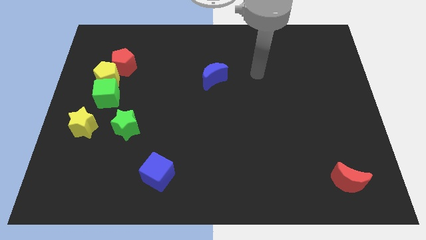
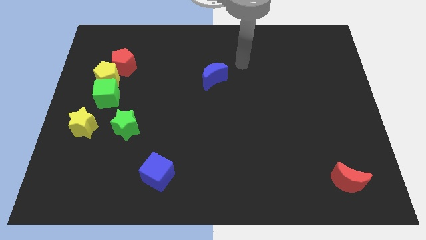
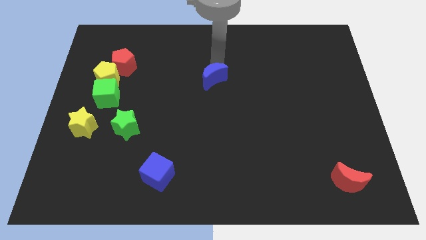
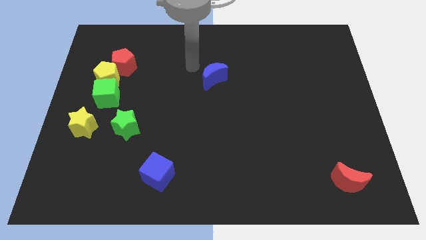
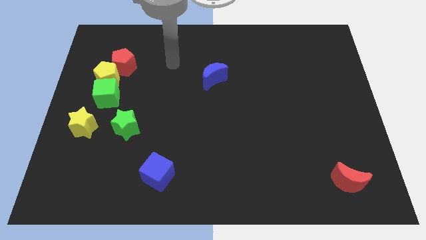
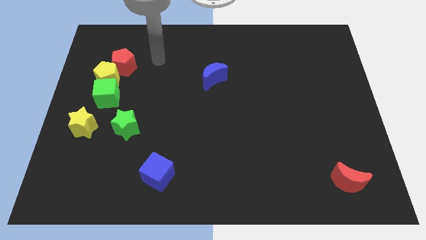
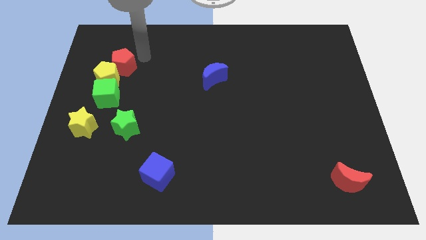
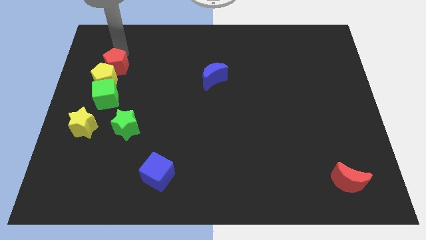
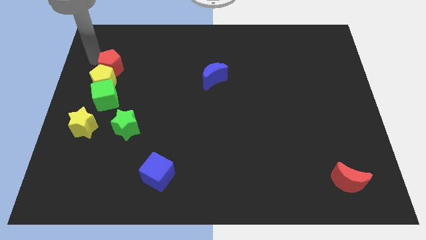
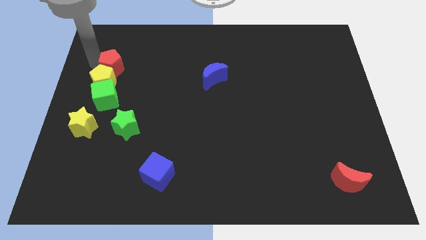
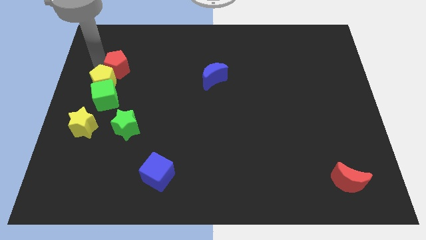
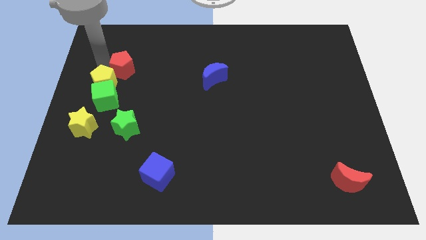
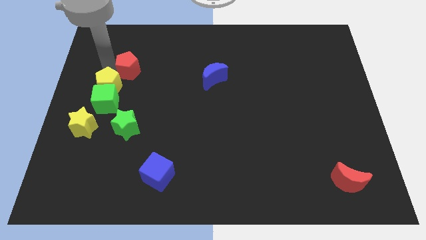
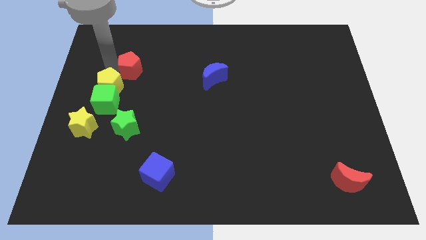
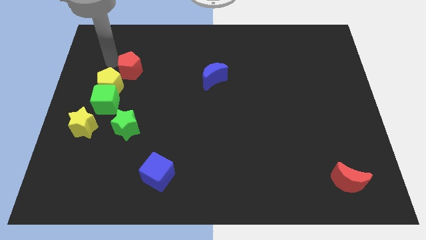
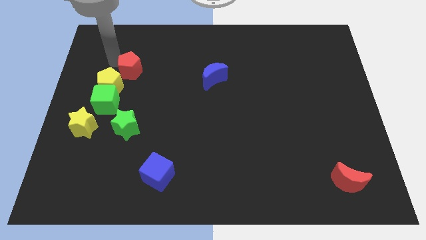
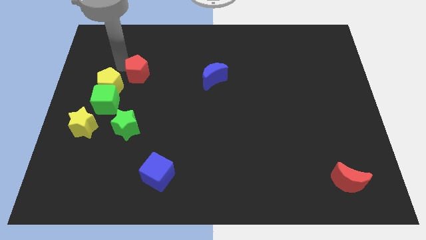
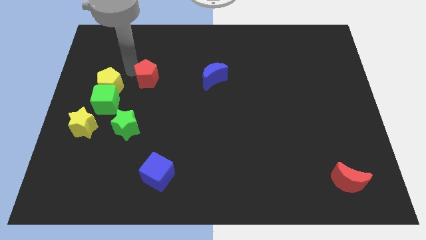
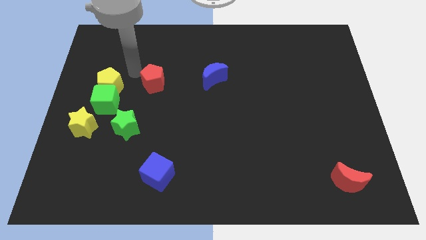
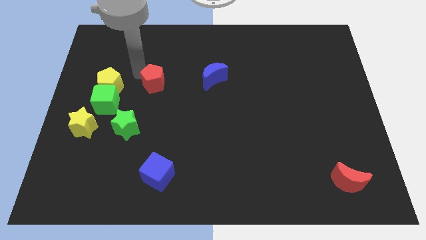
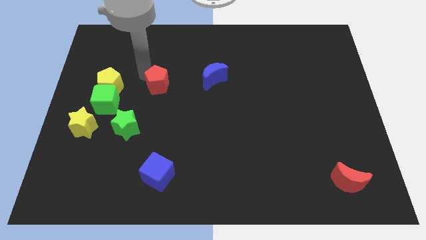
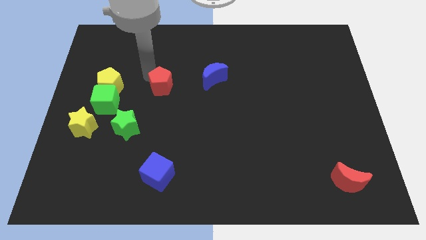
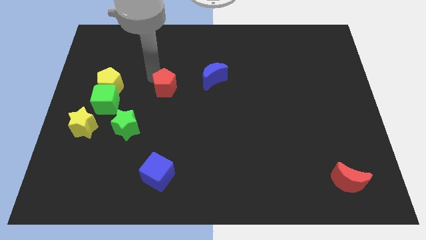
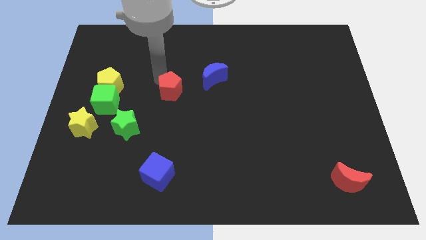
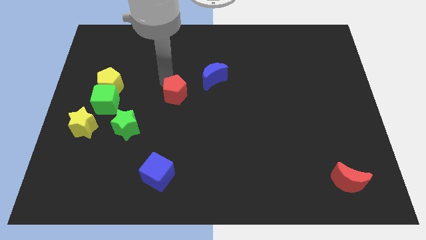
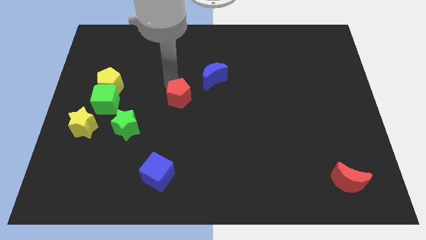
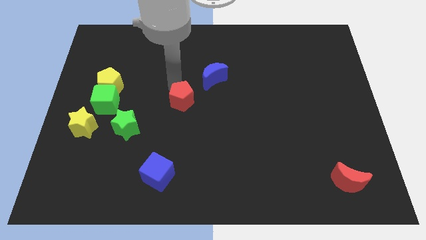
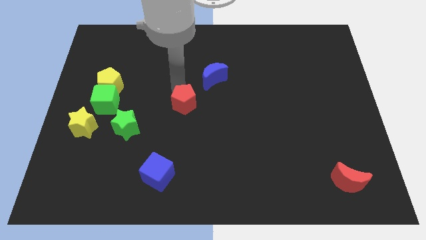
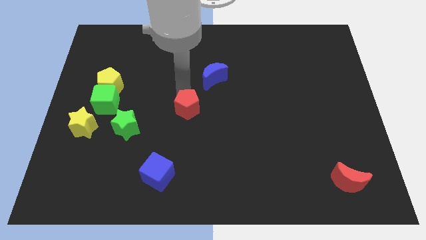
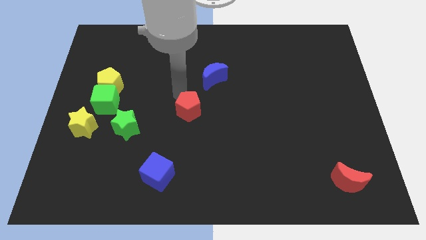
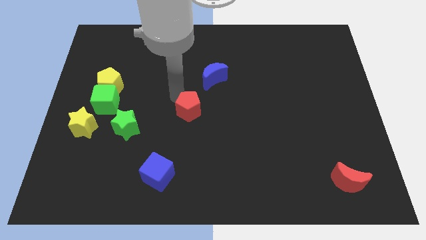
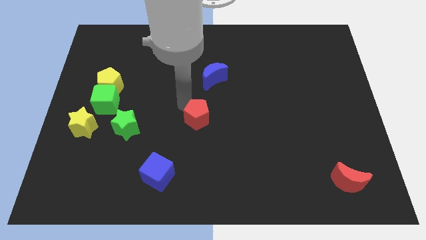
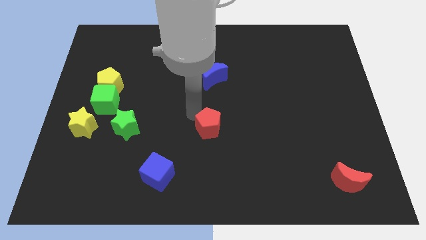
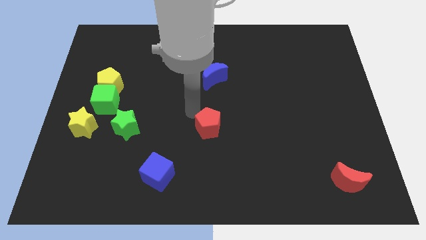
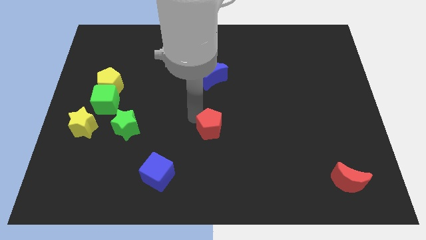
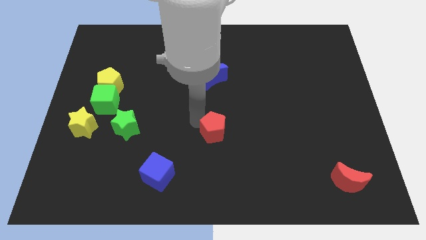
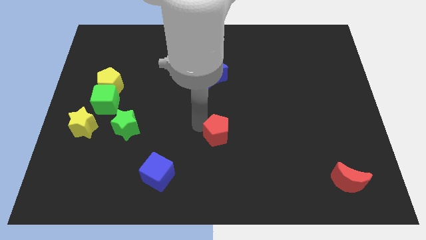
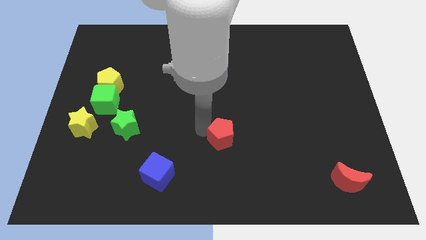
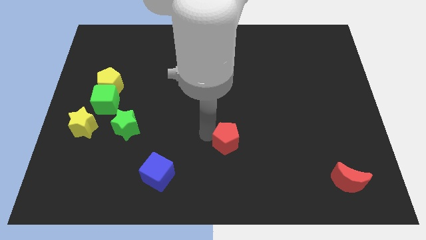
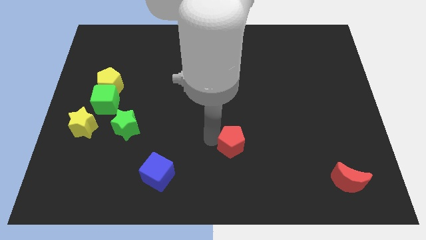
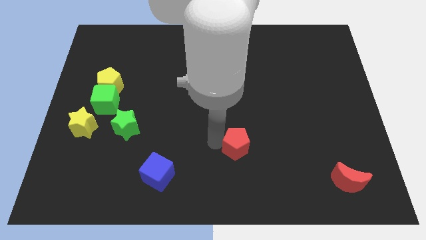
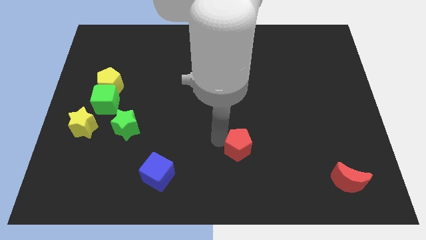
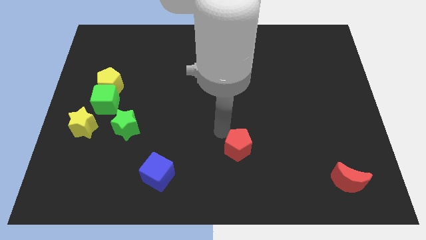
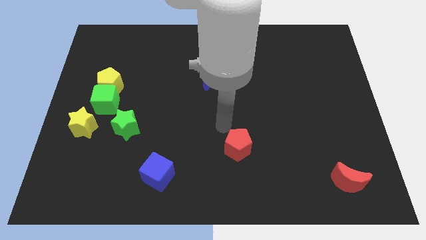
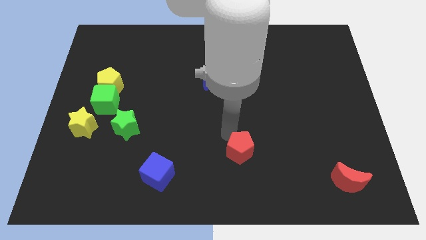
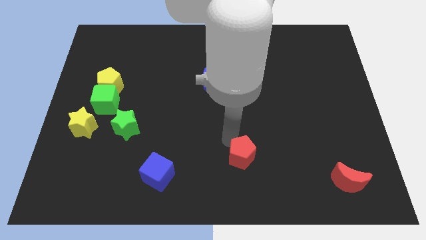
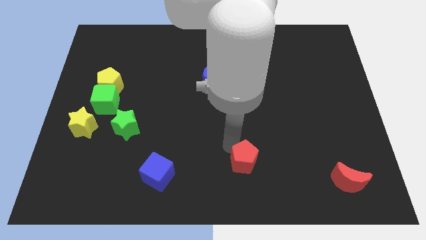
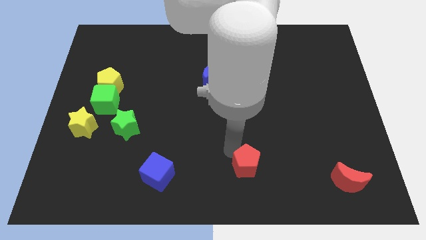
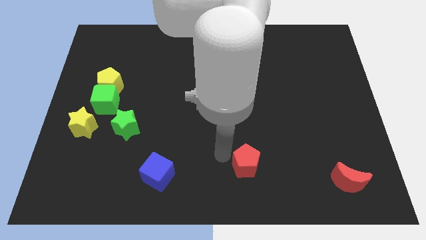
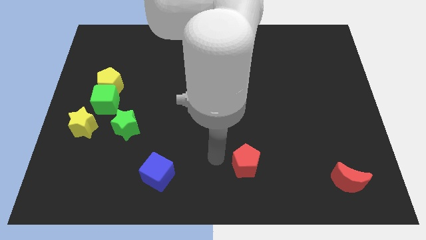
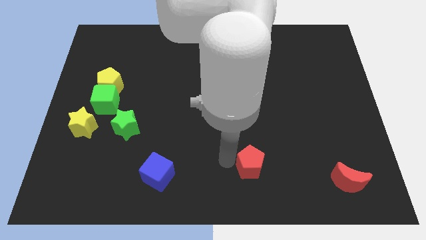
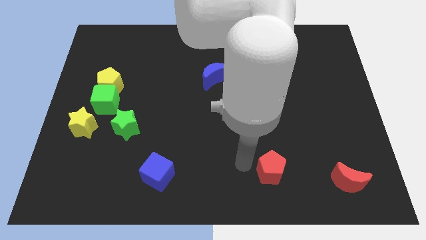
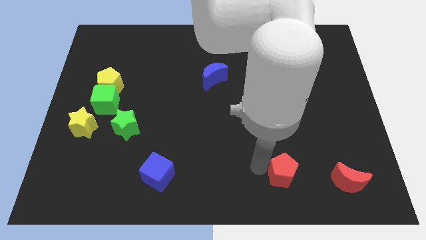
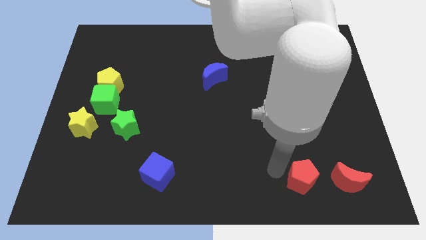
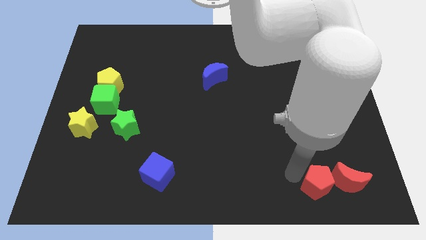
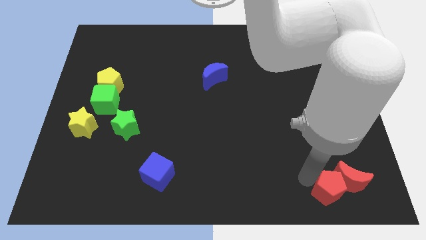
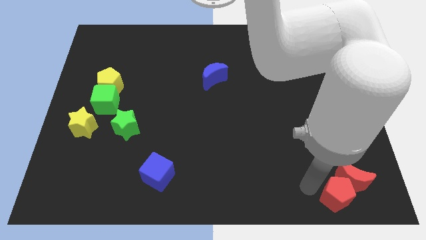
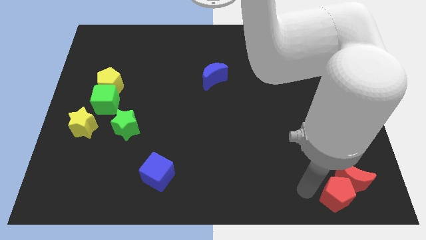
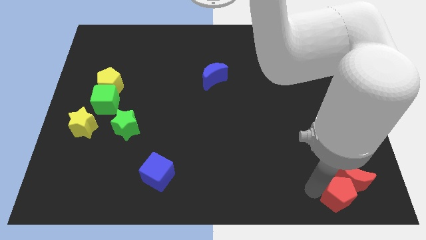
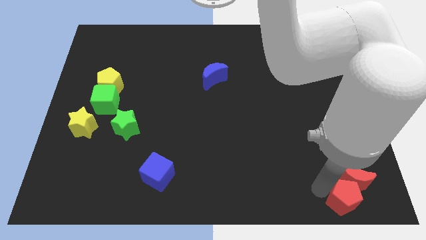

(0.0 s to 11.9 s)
put the red pentagon to the bottom right corner

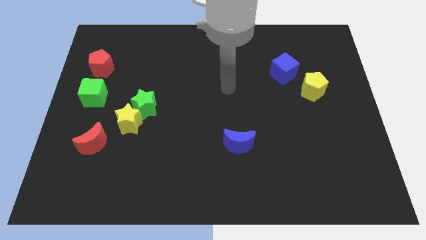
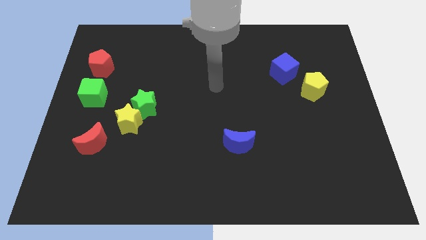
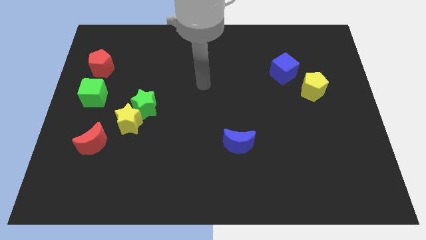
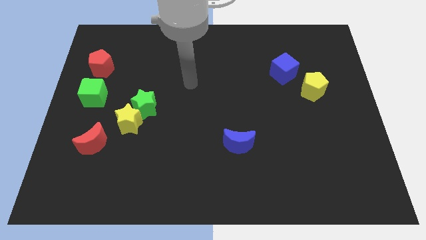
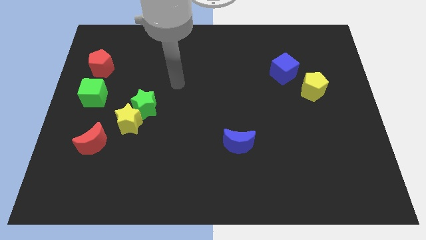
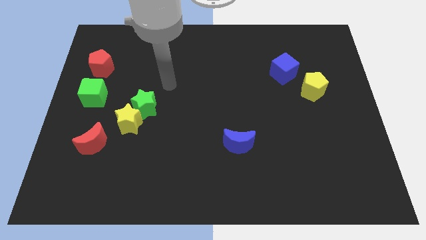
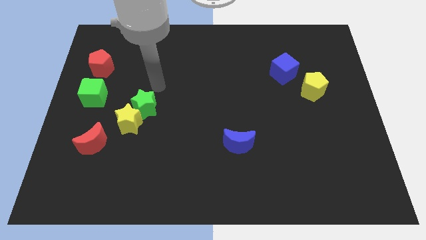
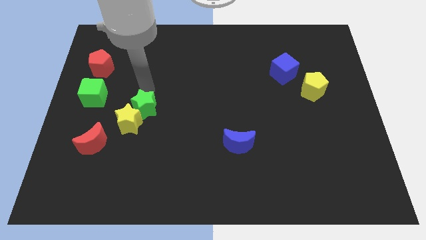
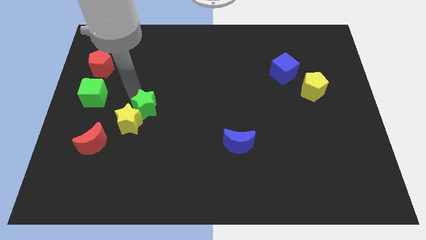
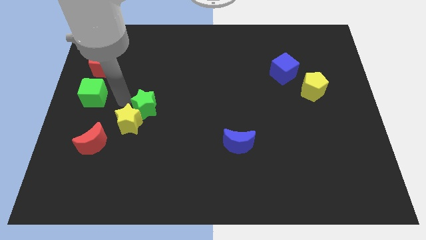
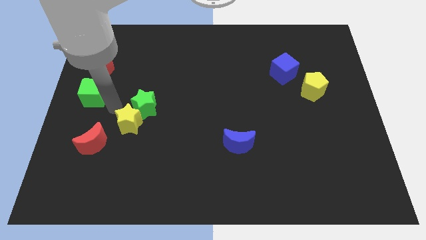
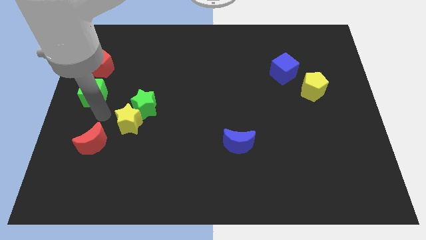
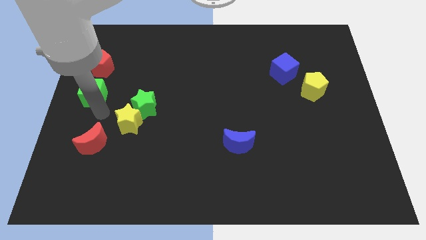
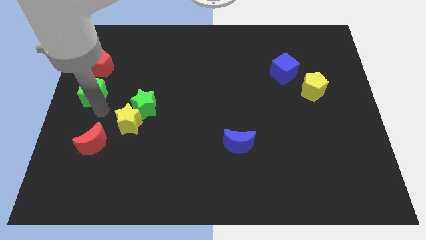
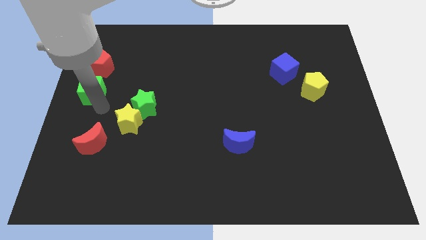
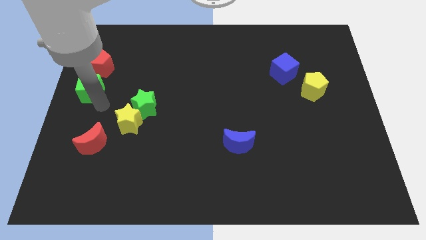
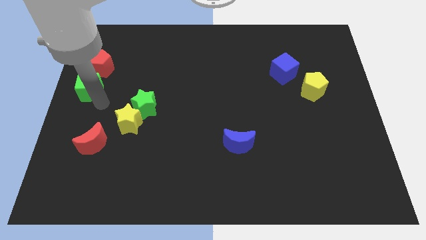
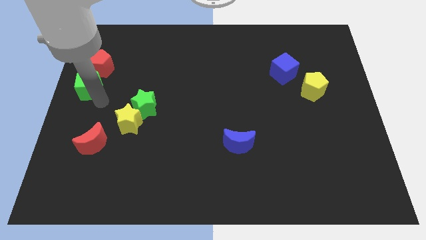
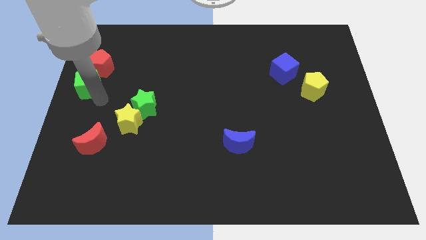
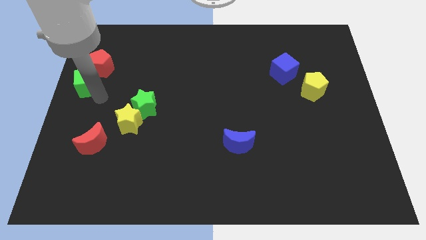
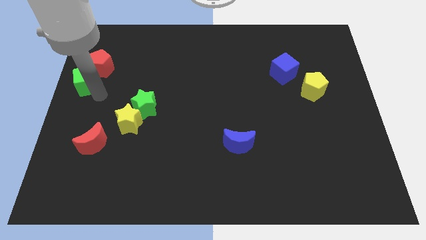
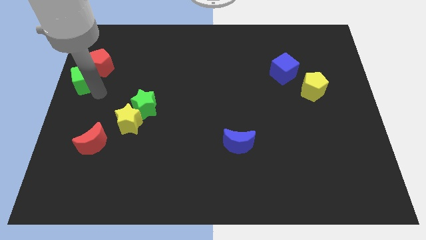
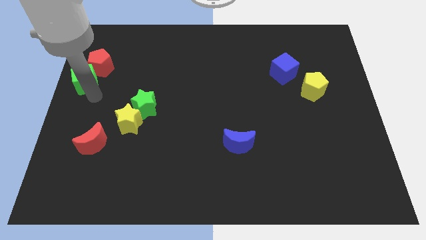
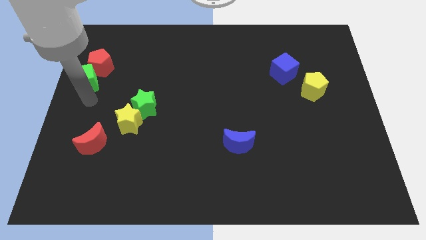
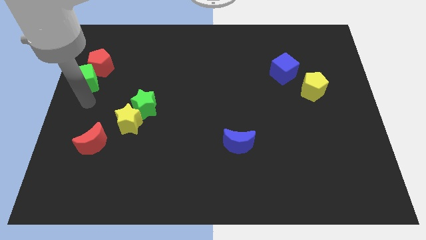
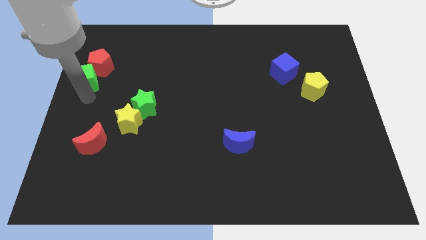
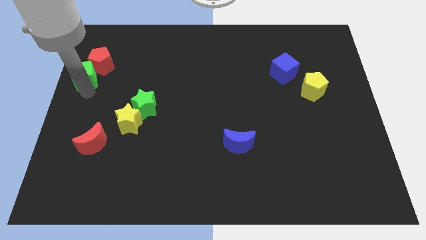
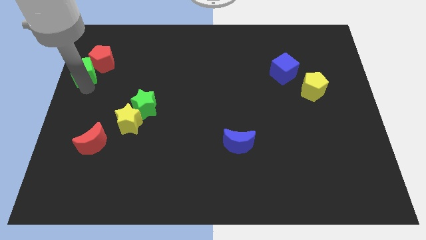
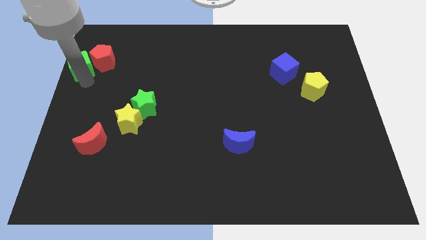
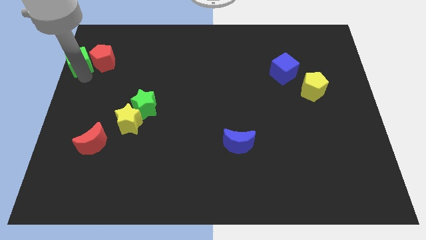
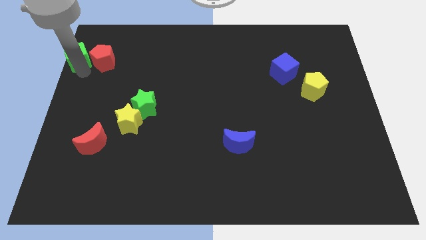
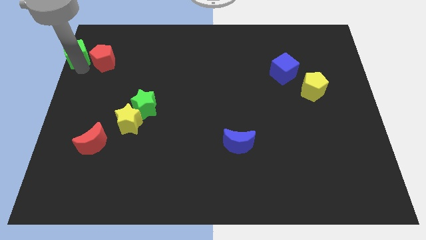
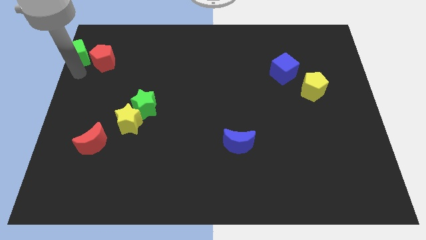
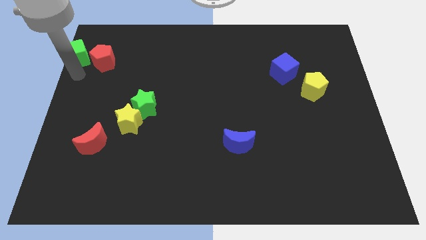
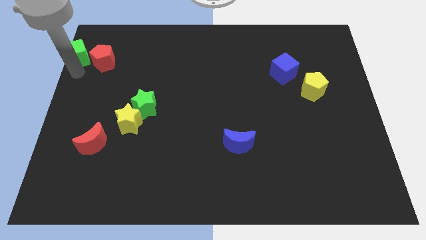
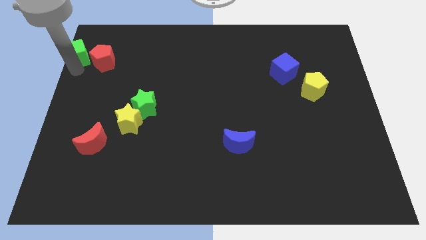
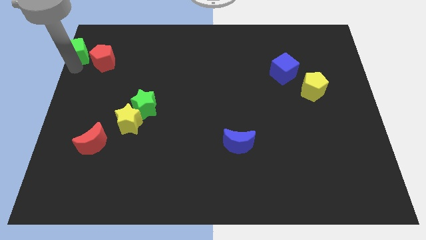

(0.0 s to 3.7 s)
push the green cube to the top left
